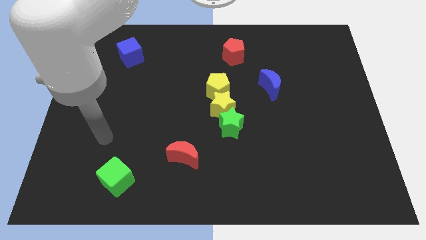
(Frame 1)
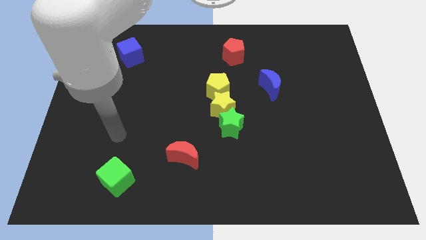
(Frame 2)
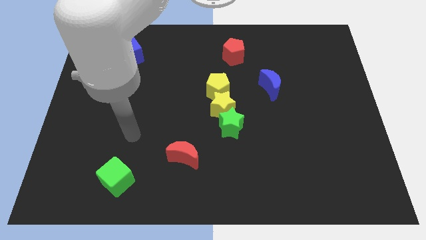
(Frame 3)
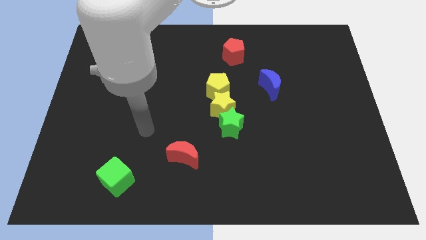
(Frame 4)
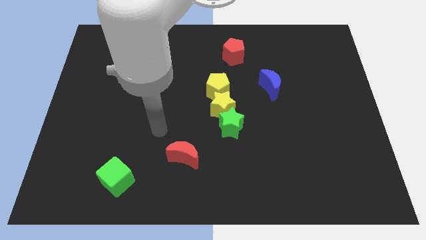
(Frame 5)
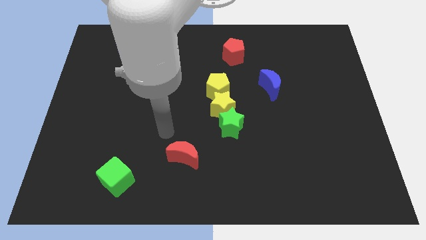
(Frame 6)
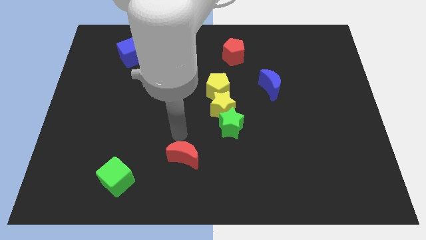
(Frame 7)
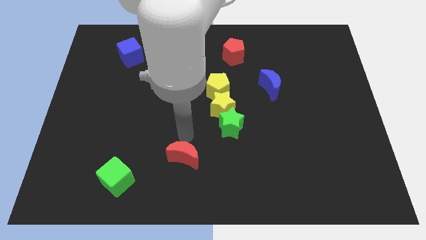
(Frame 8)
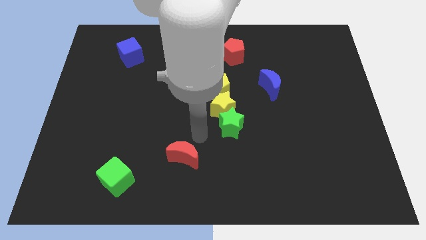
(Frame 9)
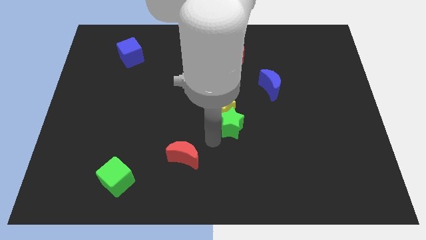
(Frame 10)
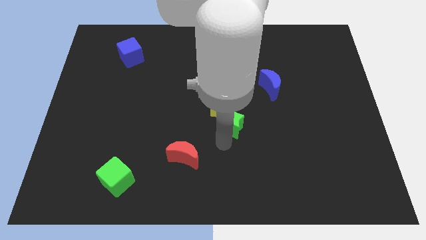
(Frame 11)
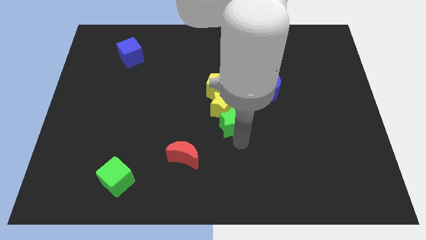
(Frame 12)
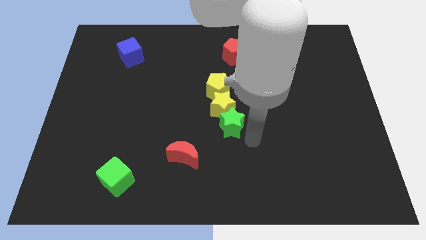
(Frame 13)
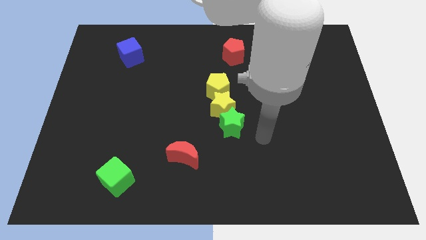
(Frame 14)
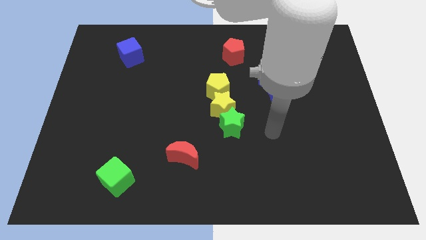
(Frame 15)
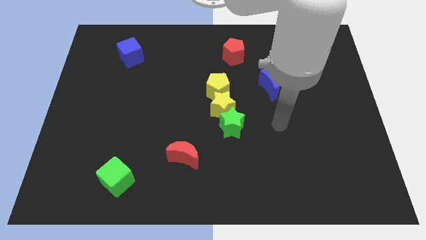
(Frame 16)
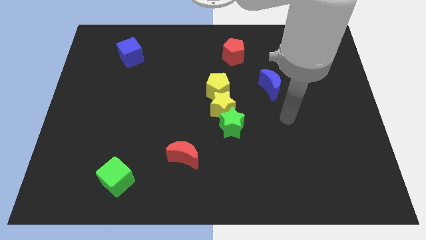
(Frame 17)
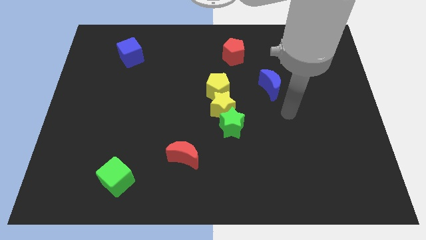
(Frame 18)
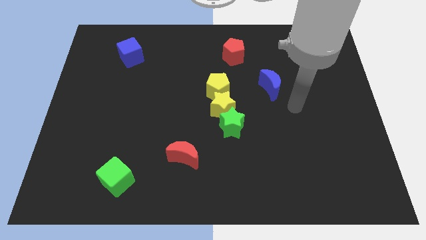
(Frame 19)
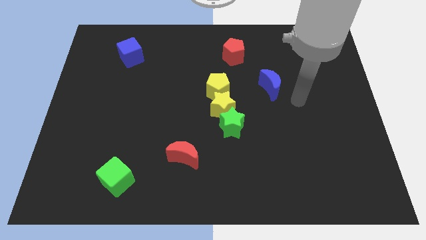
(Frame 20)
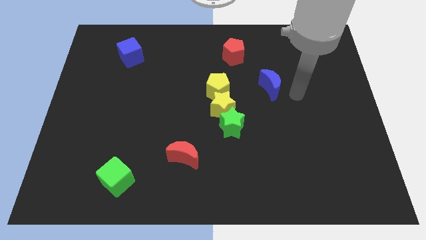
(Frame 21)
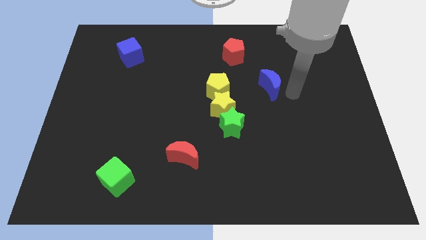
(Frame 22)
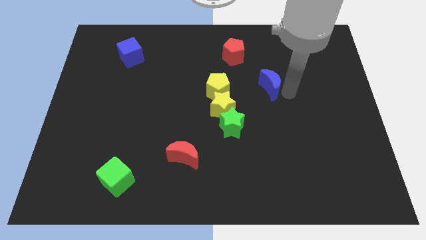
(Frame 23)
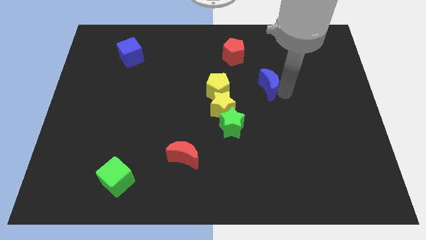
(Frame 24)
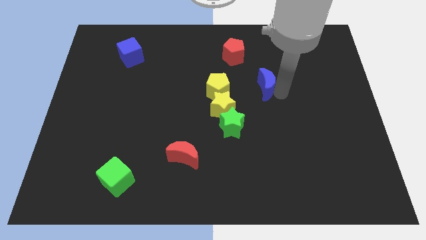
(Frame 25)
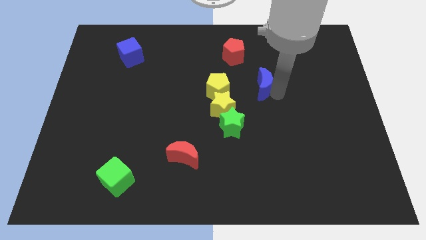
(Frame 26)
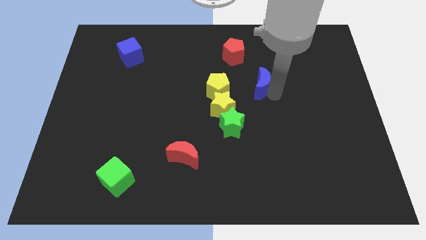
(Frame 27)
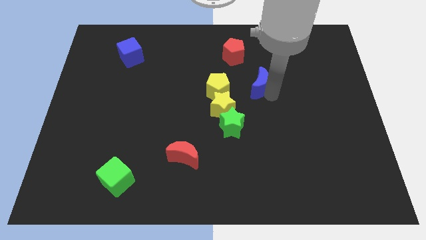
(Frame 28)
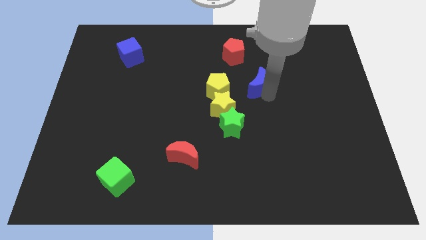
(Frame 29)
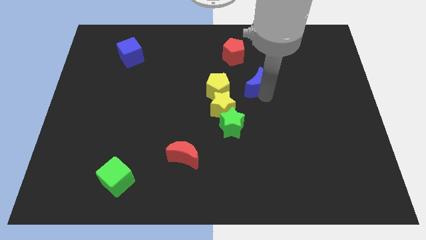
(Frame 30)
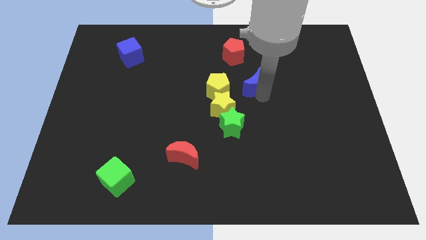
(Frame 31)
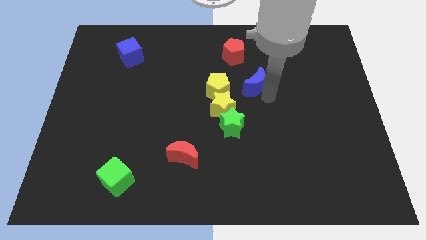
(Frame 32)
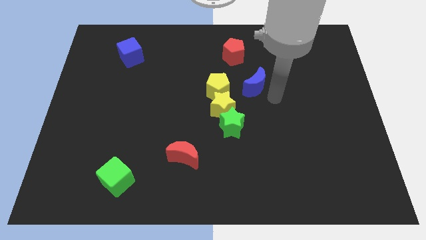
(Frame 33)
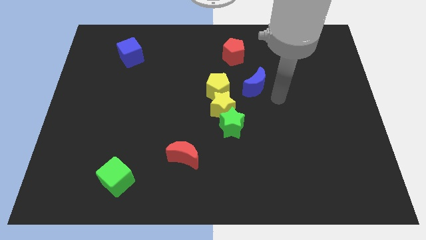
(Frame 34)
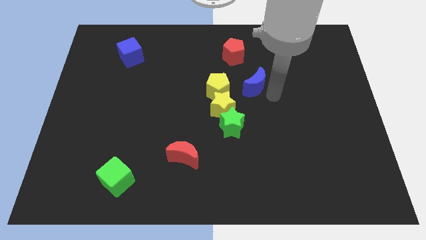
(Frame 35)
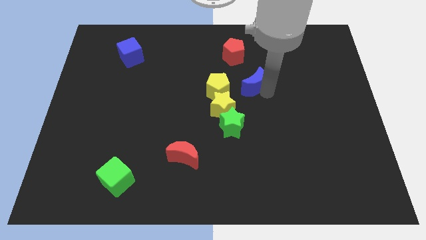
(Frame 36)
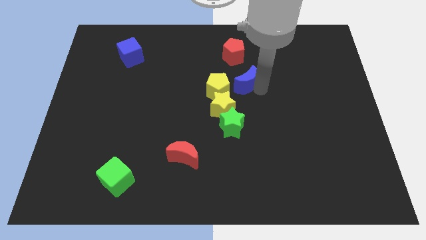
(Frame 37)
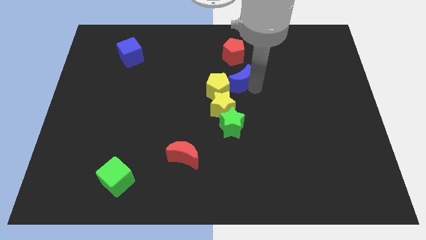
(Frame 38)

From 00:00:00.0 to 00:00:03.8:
slightly move the blue moon to the left

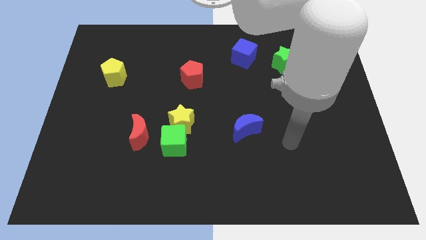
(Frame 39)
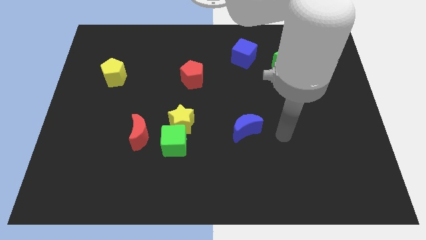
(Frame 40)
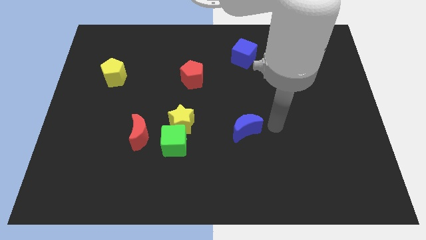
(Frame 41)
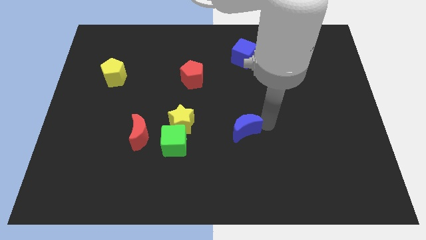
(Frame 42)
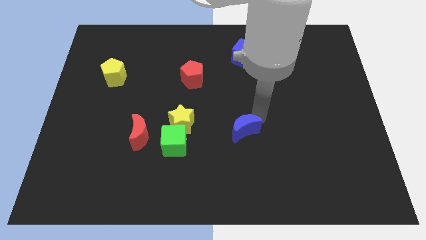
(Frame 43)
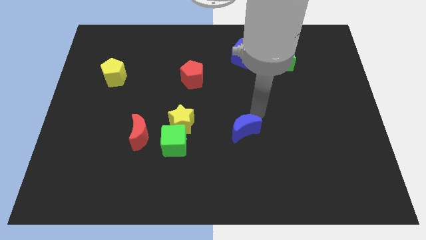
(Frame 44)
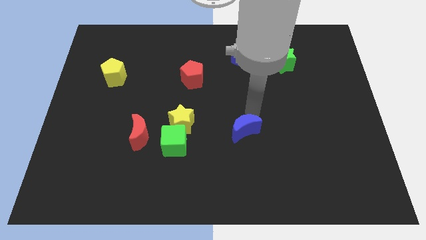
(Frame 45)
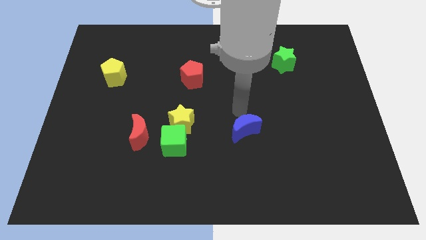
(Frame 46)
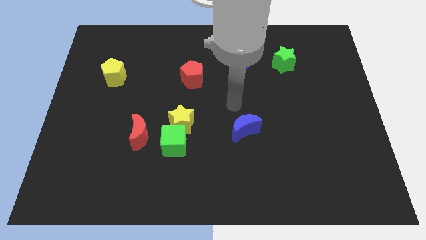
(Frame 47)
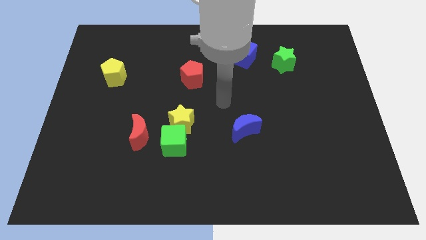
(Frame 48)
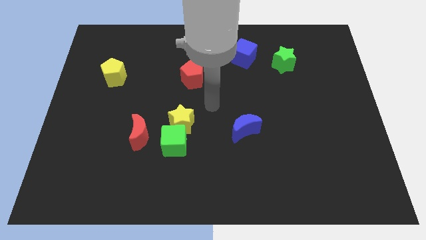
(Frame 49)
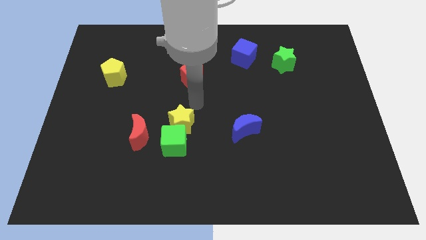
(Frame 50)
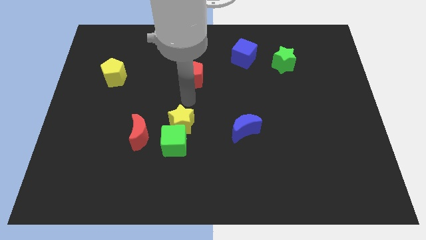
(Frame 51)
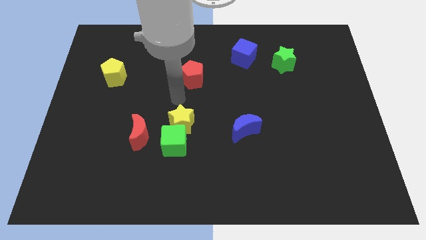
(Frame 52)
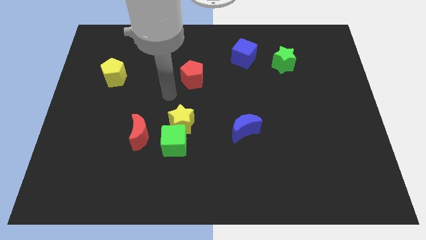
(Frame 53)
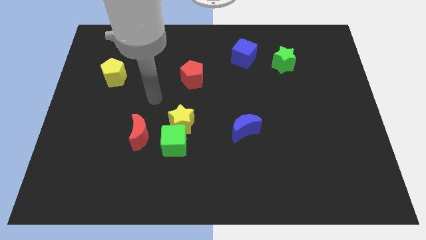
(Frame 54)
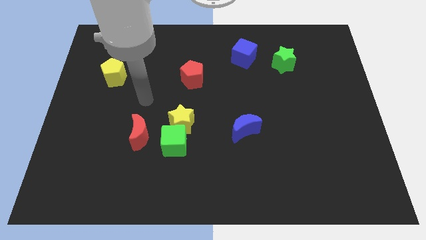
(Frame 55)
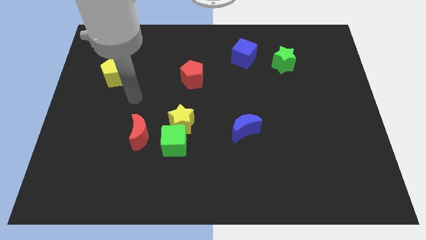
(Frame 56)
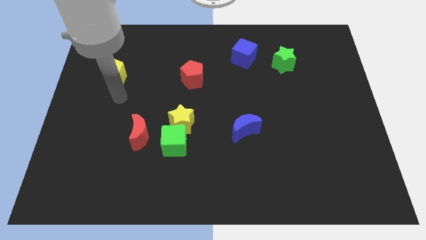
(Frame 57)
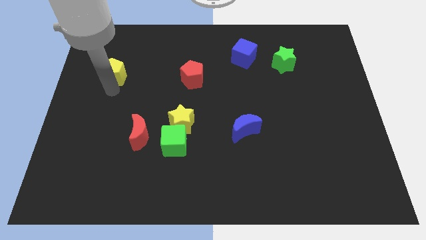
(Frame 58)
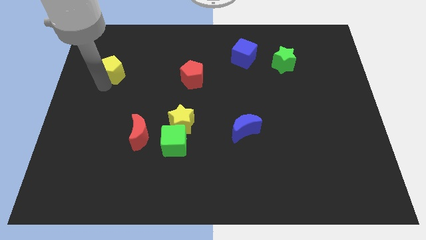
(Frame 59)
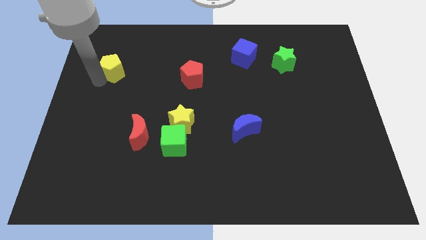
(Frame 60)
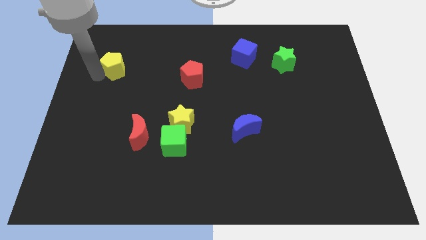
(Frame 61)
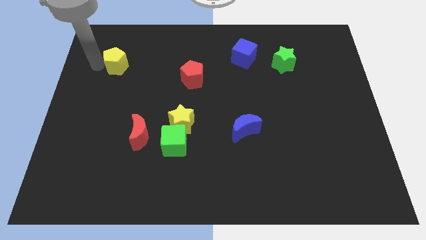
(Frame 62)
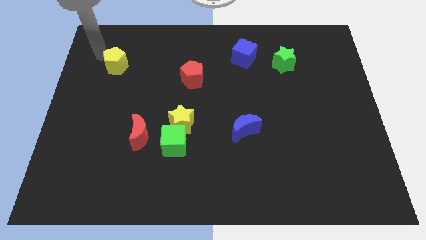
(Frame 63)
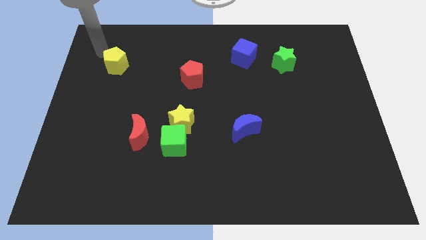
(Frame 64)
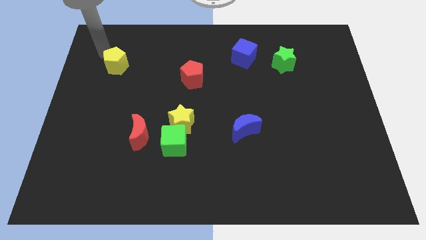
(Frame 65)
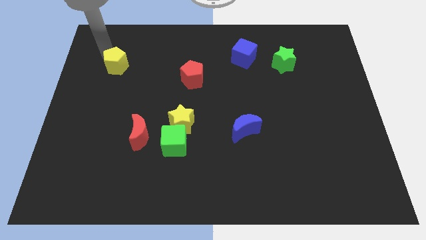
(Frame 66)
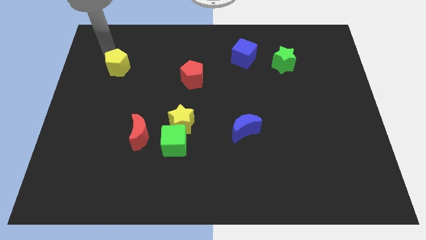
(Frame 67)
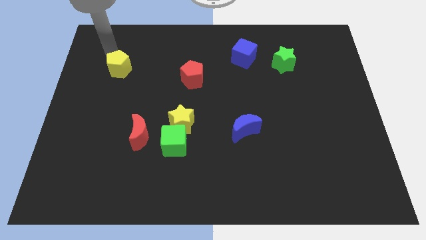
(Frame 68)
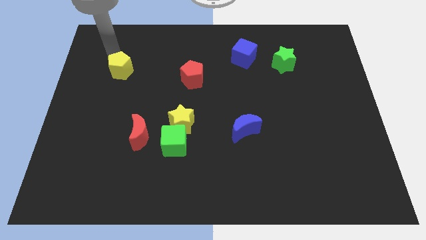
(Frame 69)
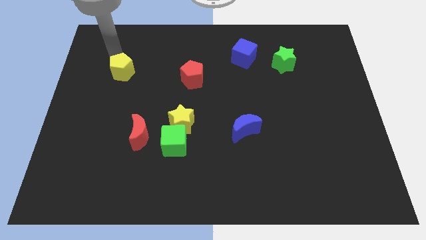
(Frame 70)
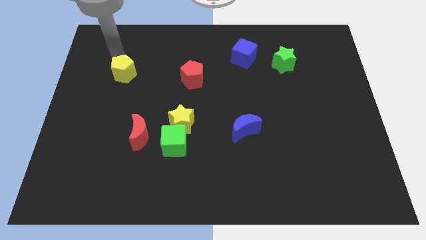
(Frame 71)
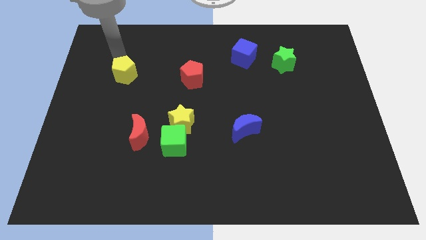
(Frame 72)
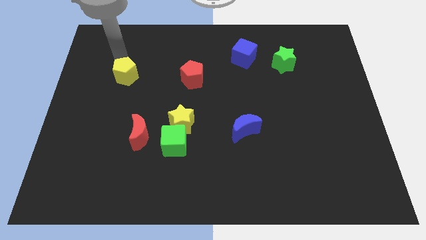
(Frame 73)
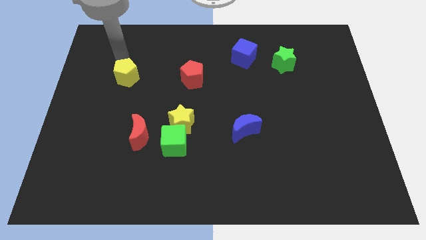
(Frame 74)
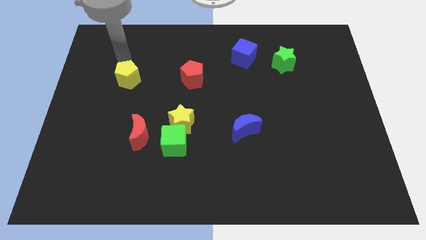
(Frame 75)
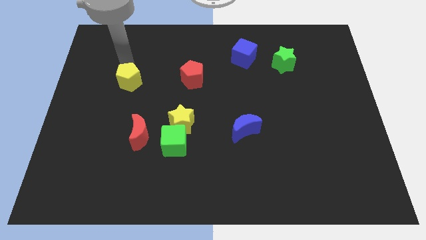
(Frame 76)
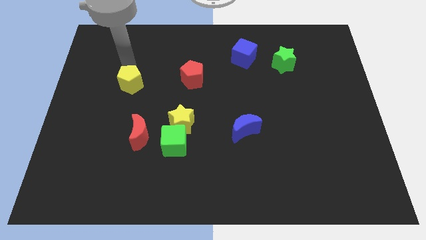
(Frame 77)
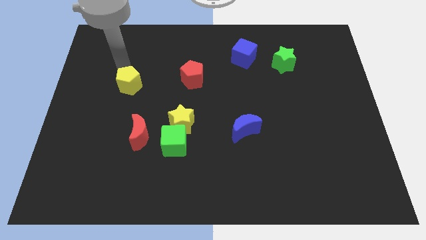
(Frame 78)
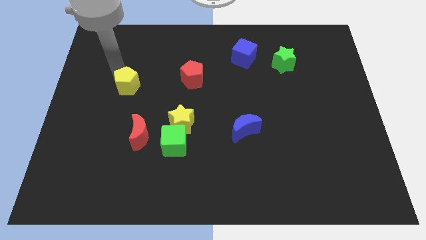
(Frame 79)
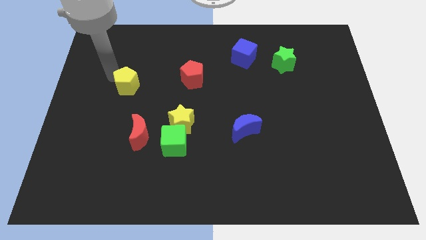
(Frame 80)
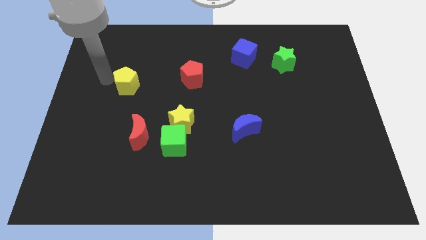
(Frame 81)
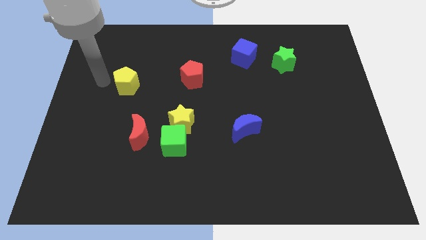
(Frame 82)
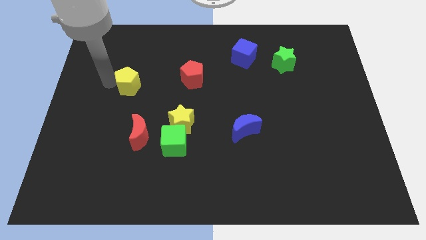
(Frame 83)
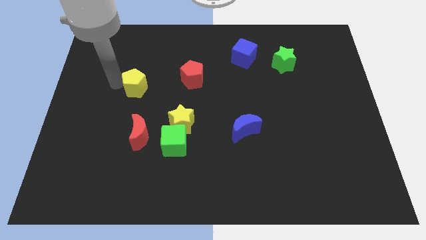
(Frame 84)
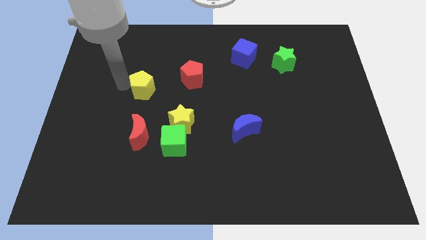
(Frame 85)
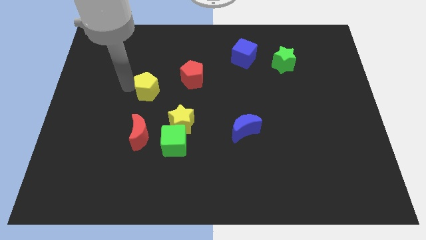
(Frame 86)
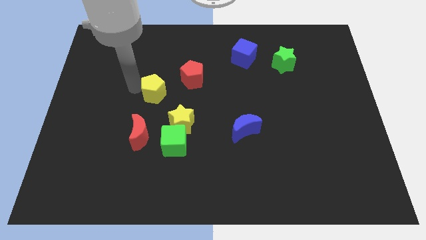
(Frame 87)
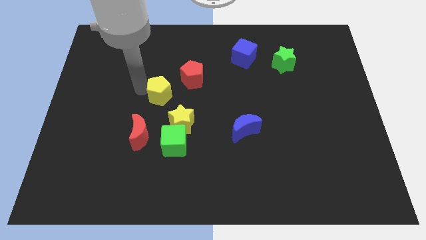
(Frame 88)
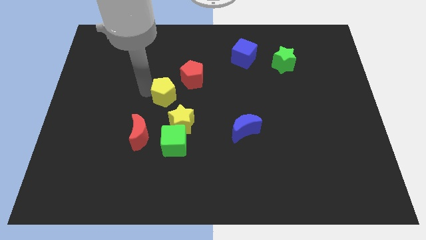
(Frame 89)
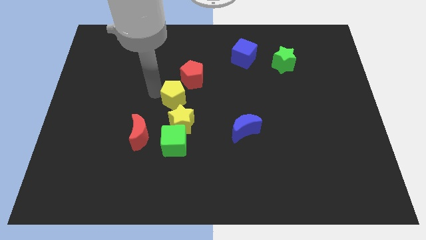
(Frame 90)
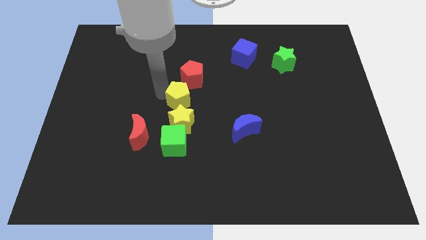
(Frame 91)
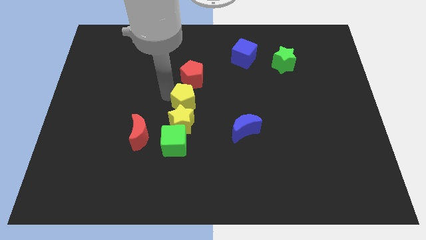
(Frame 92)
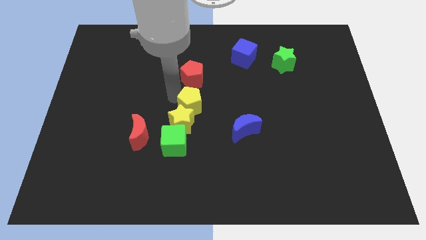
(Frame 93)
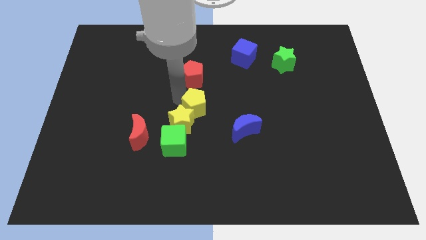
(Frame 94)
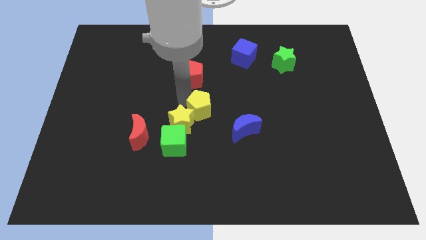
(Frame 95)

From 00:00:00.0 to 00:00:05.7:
move the yellow pentagon diagonally down and to the right
